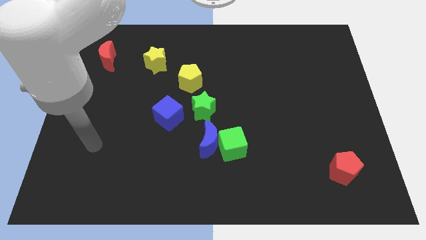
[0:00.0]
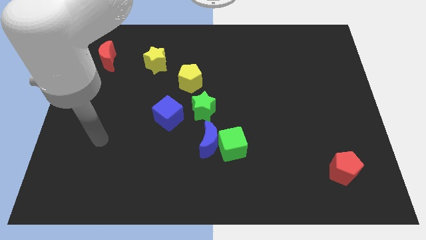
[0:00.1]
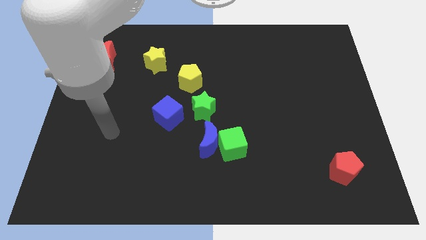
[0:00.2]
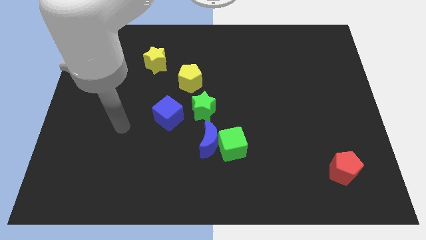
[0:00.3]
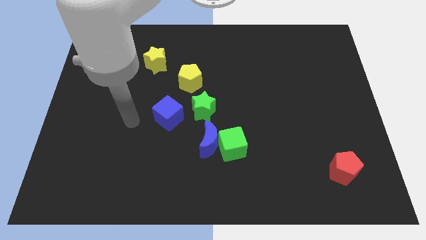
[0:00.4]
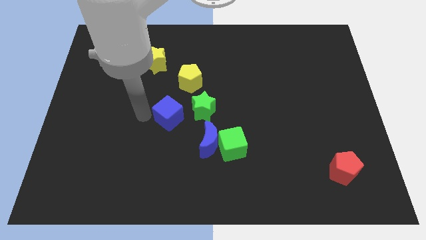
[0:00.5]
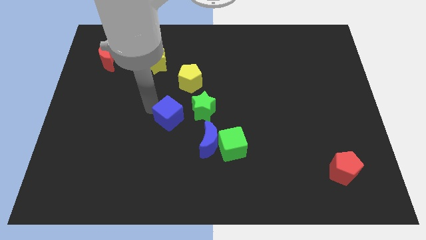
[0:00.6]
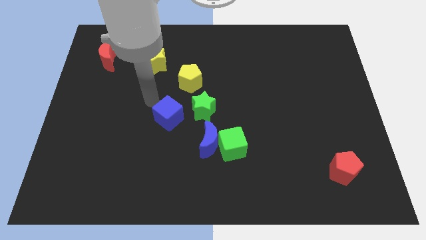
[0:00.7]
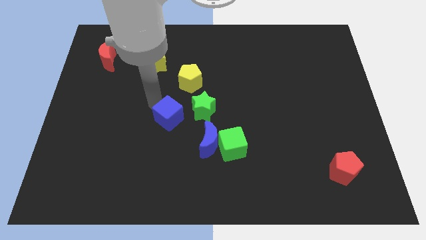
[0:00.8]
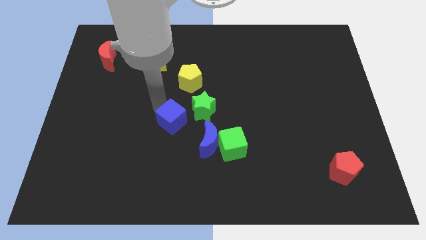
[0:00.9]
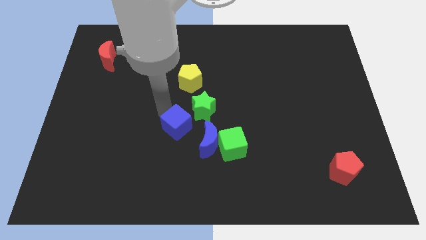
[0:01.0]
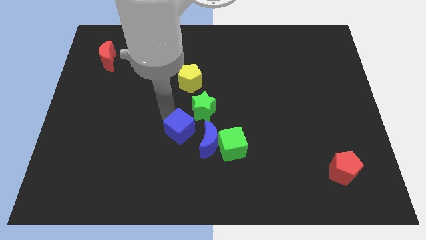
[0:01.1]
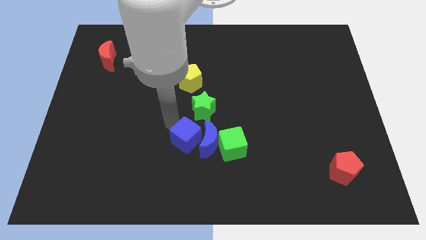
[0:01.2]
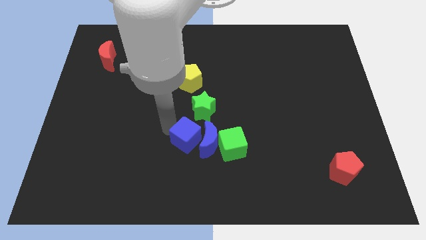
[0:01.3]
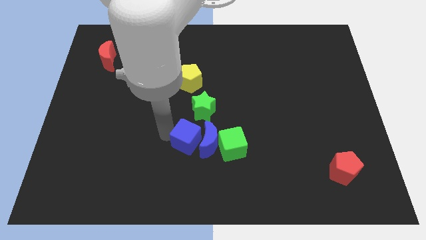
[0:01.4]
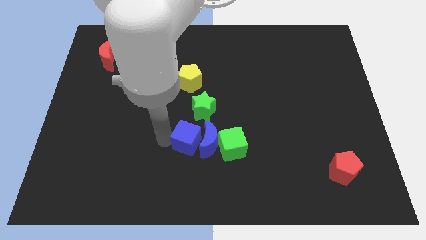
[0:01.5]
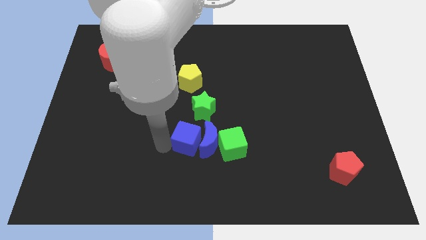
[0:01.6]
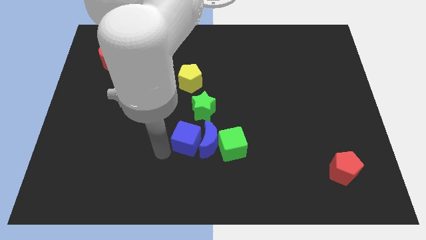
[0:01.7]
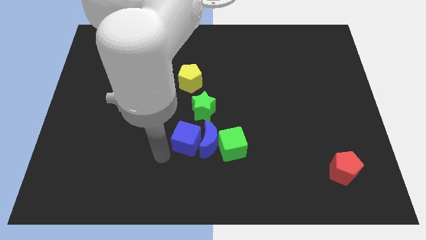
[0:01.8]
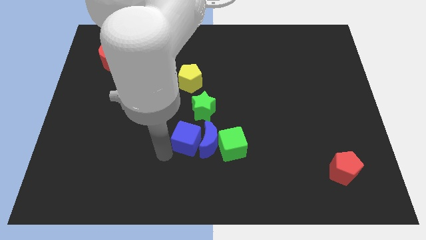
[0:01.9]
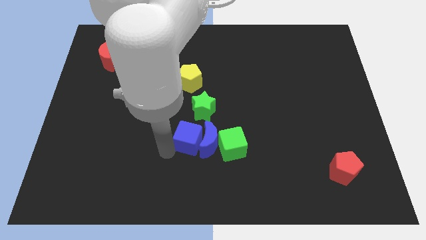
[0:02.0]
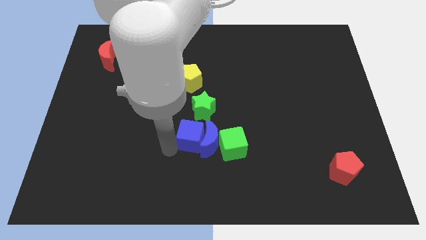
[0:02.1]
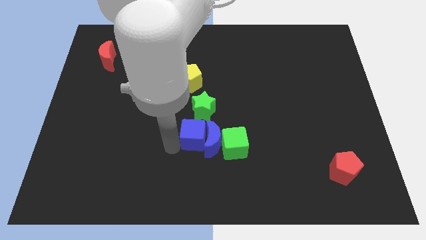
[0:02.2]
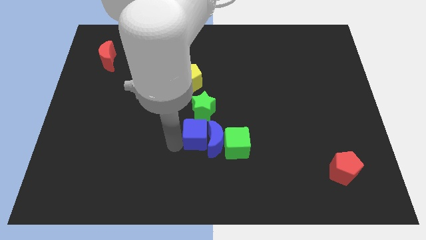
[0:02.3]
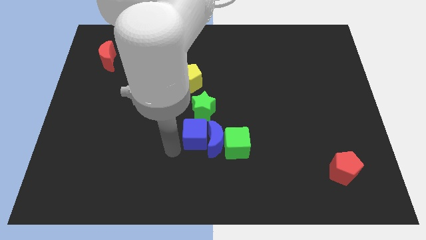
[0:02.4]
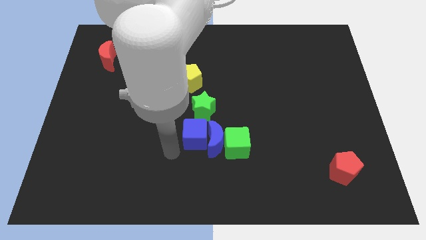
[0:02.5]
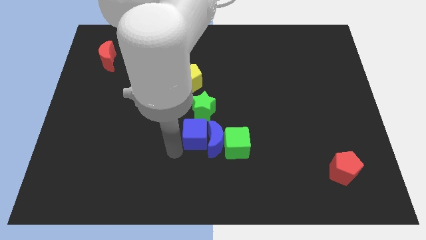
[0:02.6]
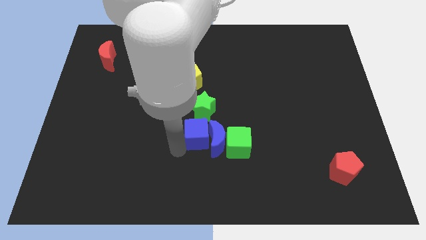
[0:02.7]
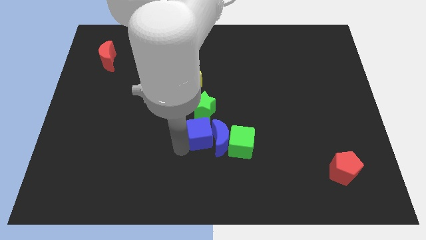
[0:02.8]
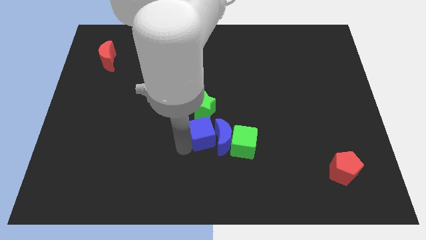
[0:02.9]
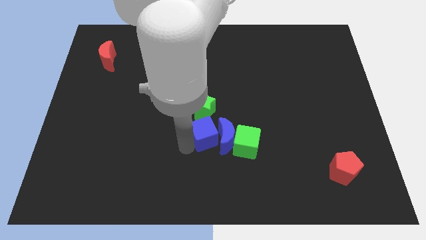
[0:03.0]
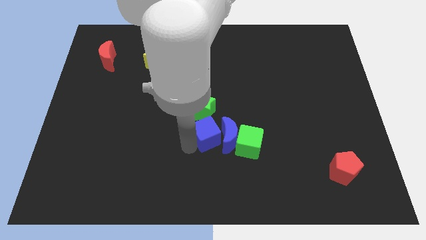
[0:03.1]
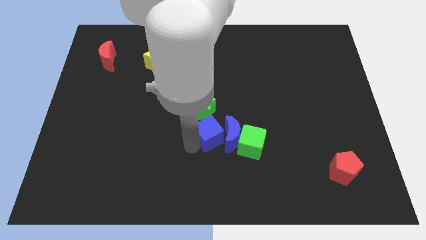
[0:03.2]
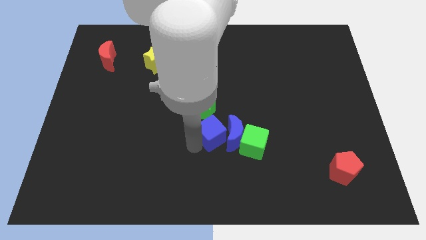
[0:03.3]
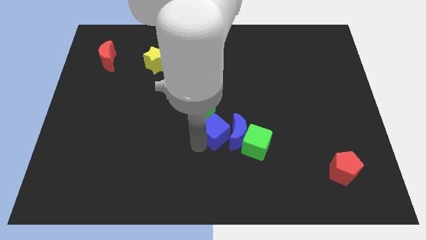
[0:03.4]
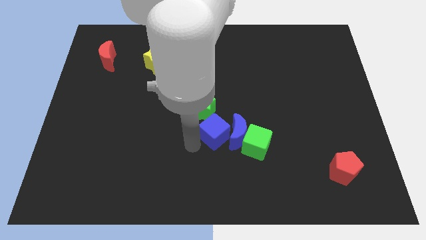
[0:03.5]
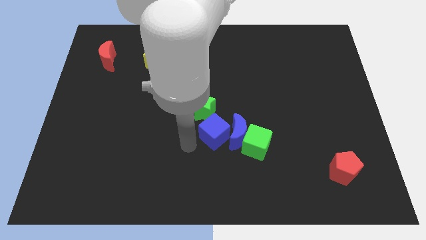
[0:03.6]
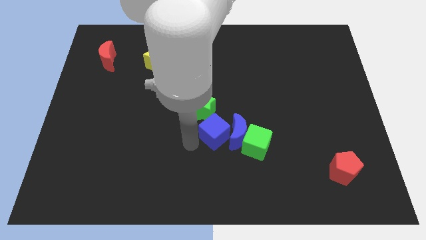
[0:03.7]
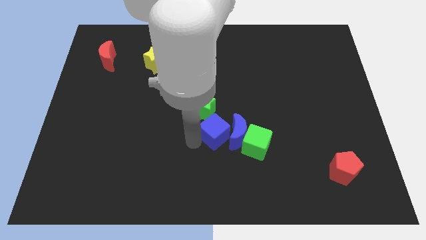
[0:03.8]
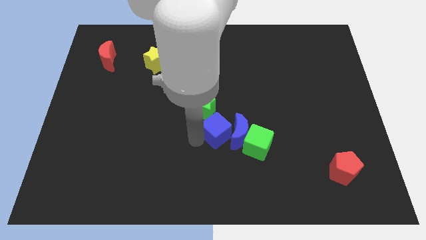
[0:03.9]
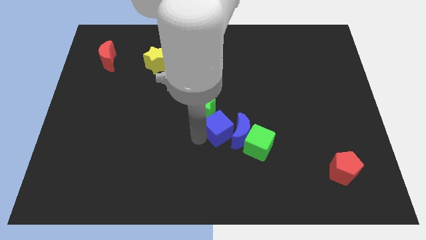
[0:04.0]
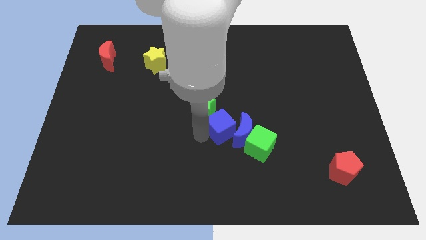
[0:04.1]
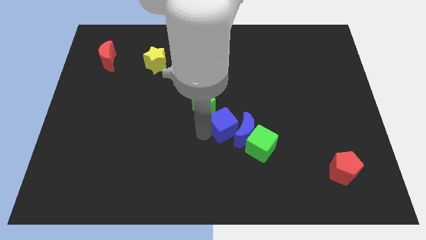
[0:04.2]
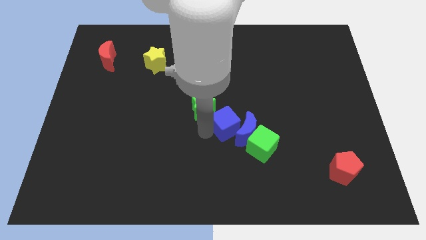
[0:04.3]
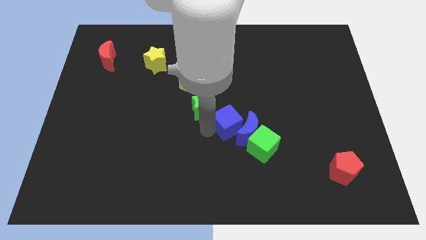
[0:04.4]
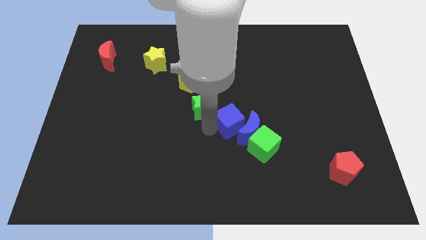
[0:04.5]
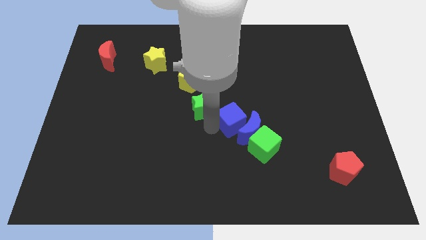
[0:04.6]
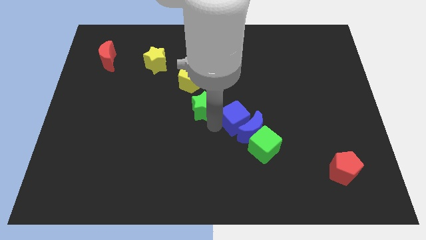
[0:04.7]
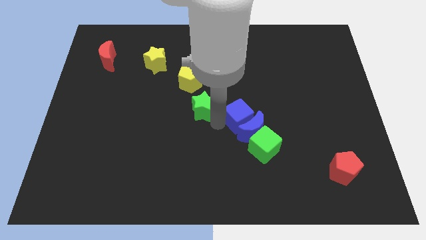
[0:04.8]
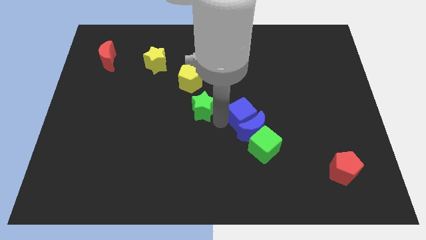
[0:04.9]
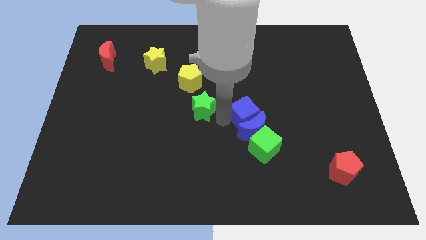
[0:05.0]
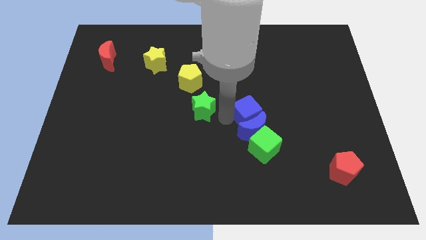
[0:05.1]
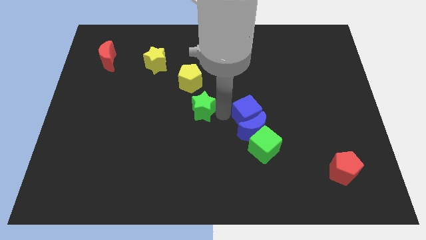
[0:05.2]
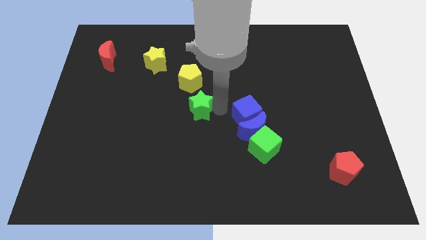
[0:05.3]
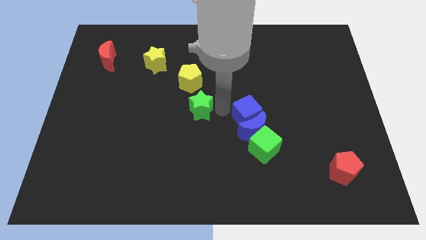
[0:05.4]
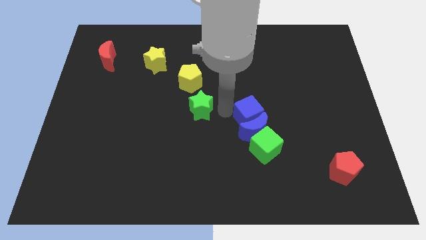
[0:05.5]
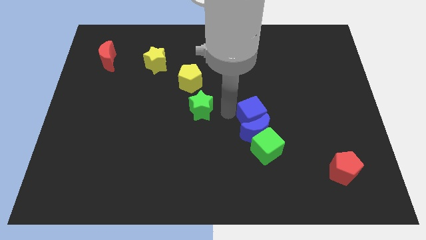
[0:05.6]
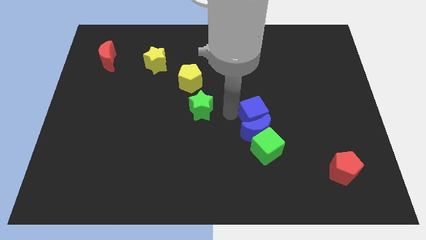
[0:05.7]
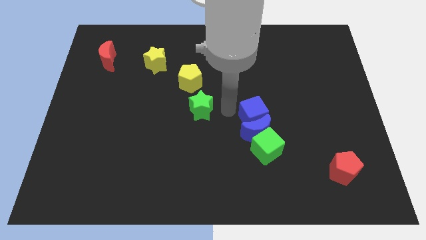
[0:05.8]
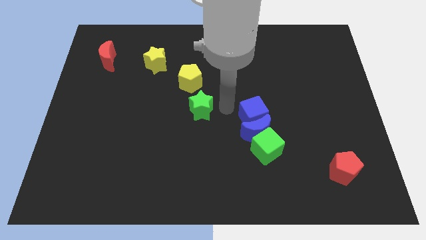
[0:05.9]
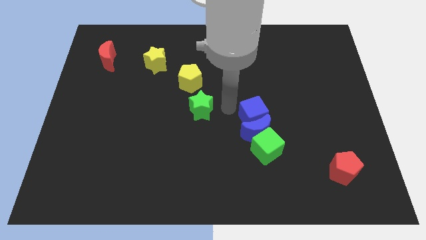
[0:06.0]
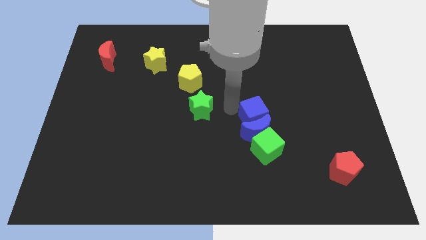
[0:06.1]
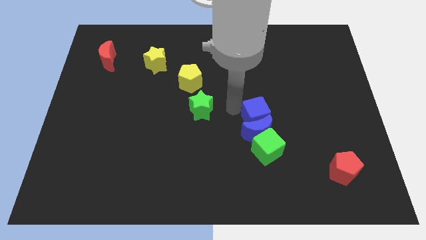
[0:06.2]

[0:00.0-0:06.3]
push the blue cube right

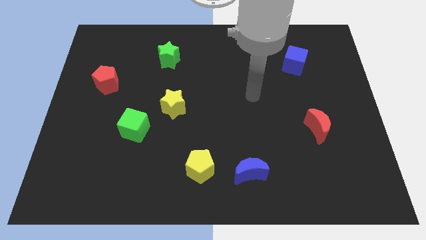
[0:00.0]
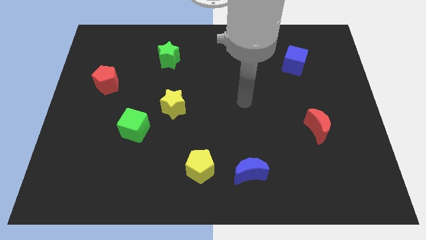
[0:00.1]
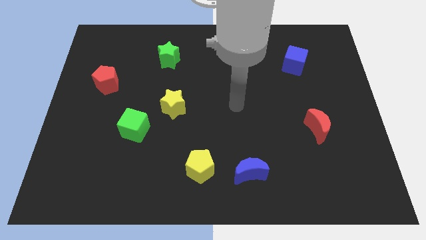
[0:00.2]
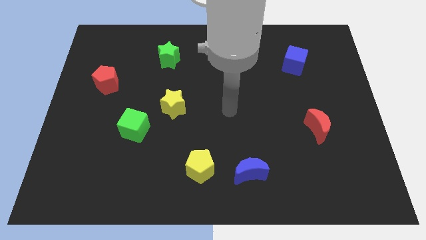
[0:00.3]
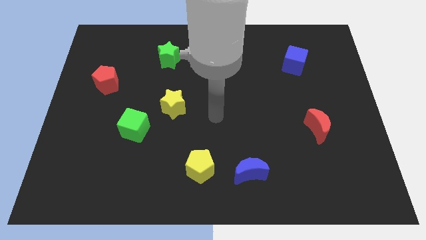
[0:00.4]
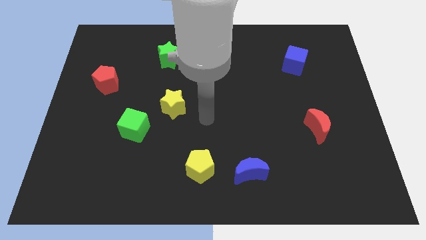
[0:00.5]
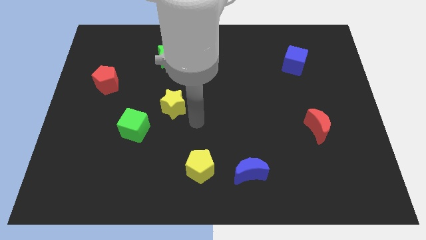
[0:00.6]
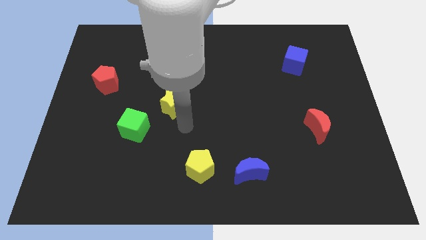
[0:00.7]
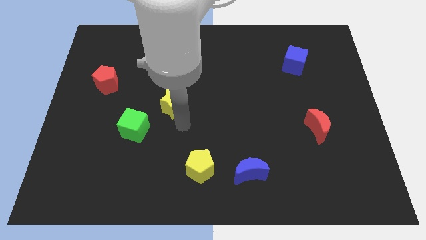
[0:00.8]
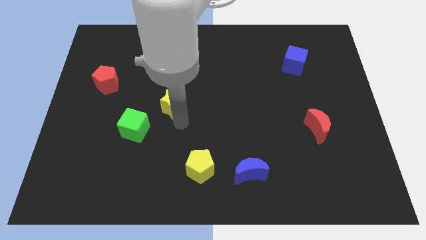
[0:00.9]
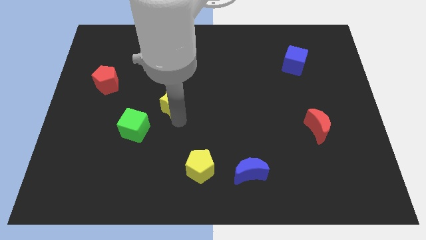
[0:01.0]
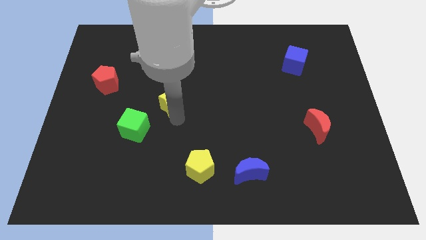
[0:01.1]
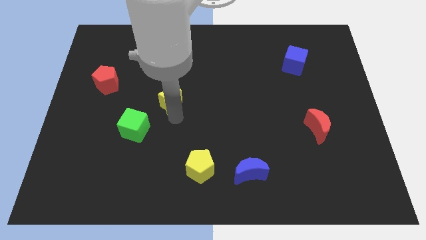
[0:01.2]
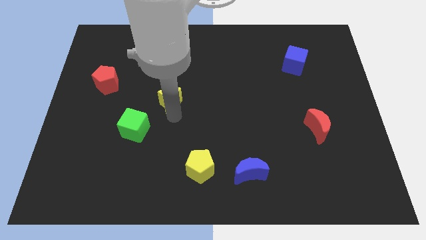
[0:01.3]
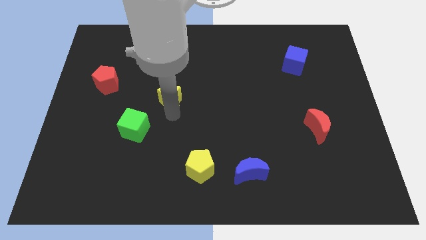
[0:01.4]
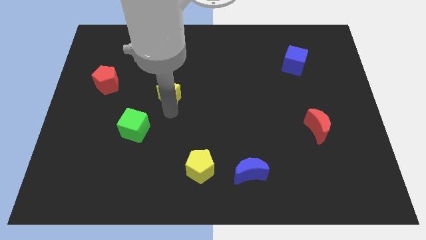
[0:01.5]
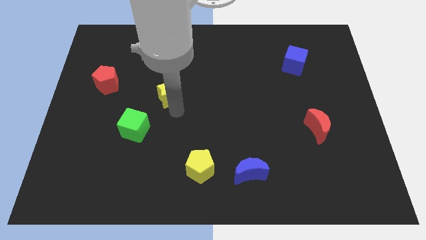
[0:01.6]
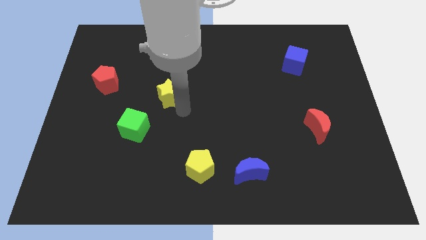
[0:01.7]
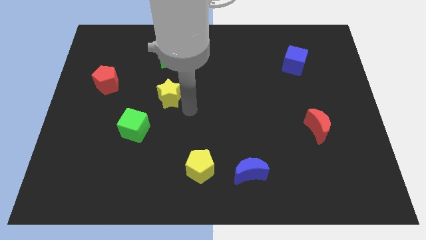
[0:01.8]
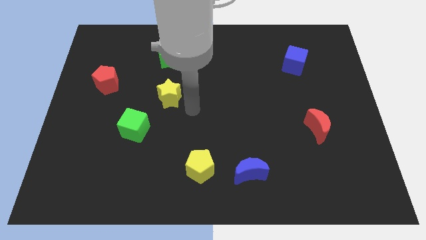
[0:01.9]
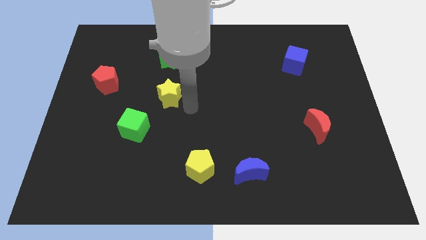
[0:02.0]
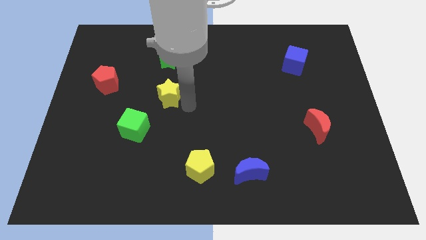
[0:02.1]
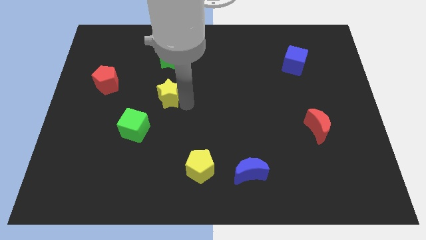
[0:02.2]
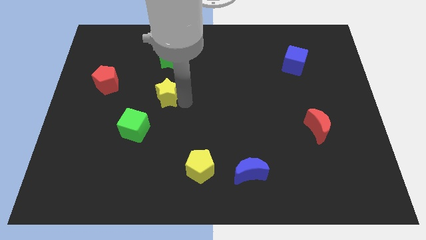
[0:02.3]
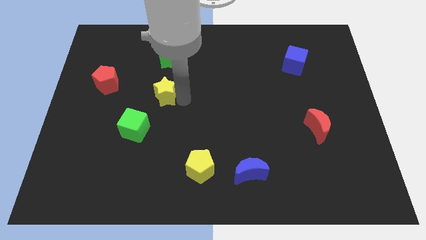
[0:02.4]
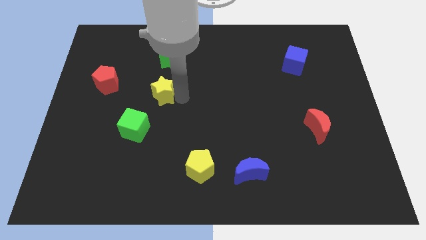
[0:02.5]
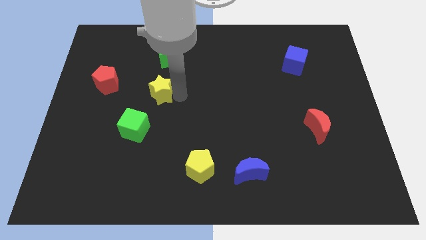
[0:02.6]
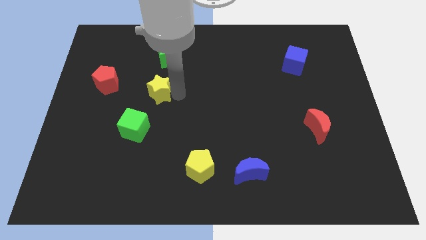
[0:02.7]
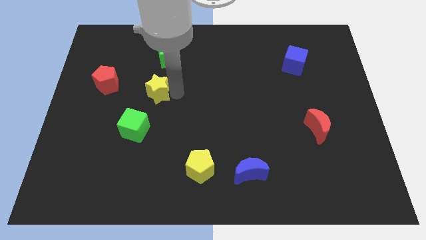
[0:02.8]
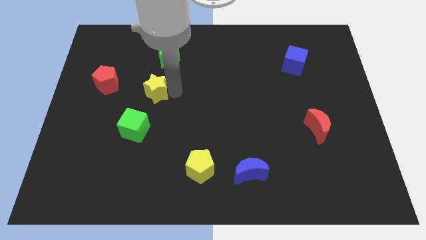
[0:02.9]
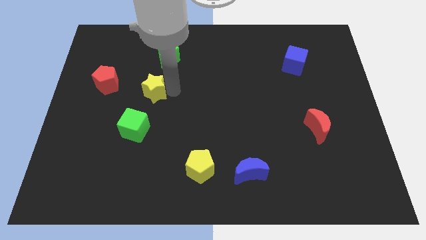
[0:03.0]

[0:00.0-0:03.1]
push the yellow star a little upwards and to the left
